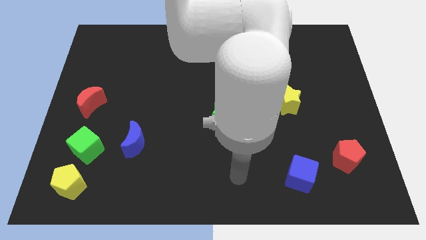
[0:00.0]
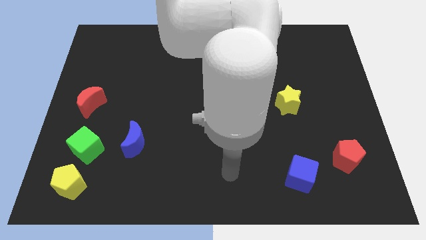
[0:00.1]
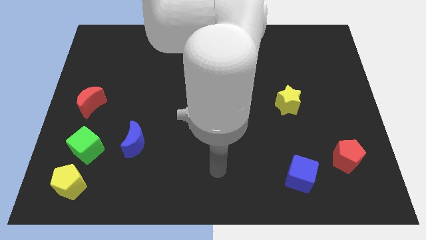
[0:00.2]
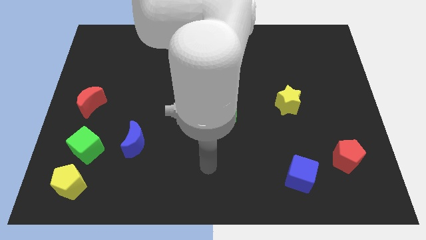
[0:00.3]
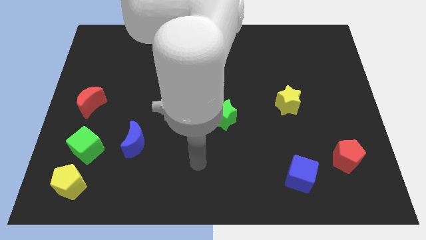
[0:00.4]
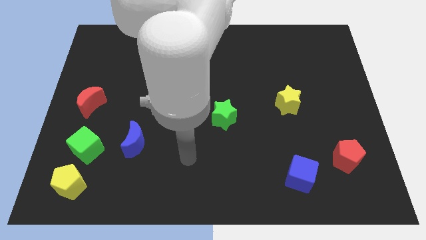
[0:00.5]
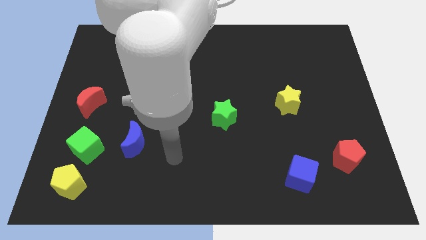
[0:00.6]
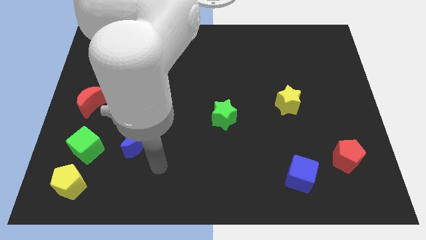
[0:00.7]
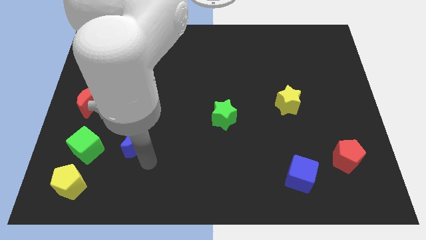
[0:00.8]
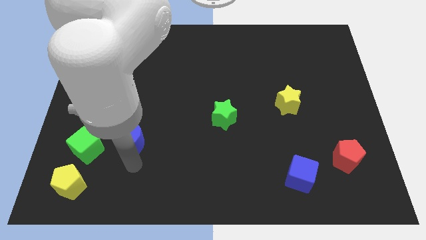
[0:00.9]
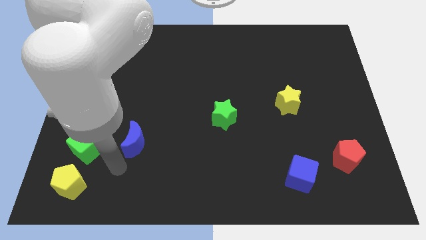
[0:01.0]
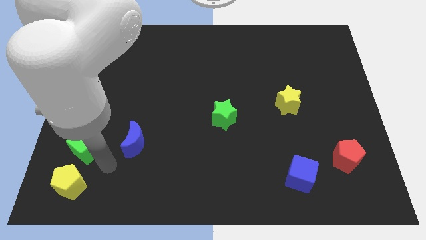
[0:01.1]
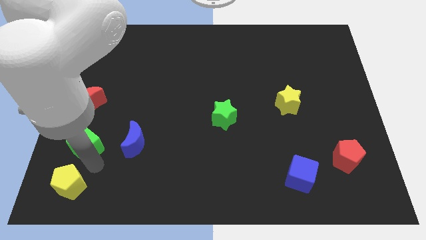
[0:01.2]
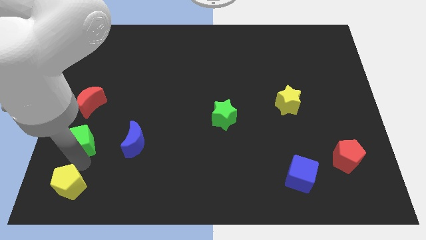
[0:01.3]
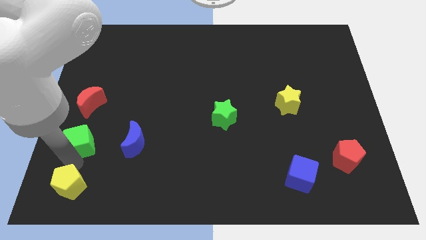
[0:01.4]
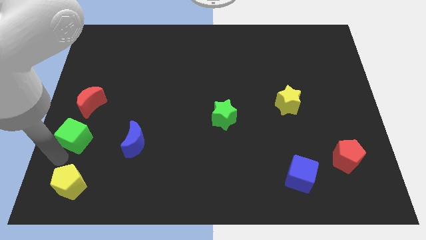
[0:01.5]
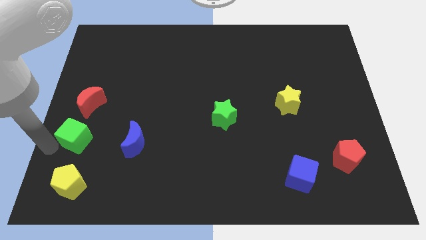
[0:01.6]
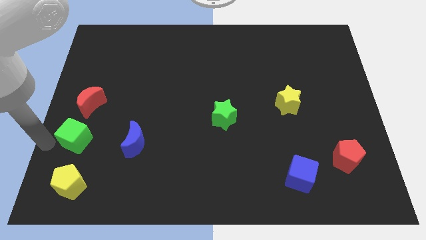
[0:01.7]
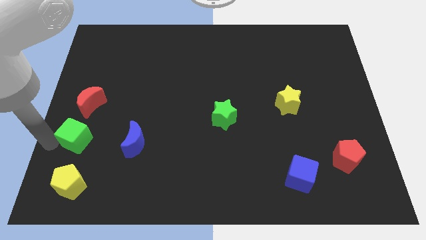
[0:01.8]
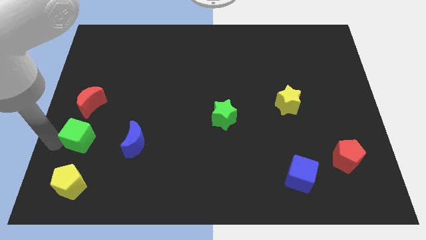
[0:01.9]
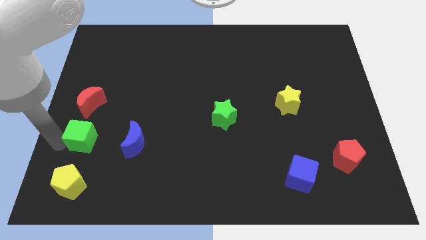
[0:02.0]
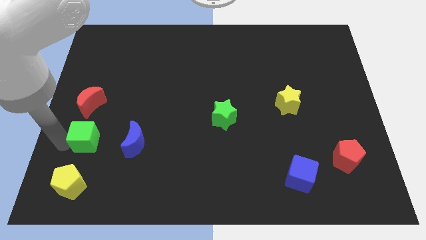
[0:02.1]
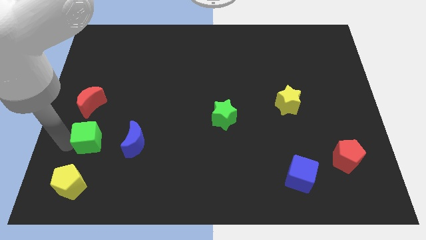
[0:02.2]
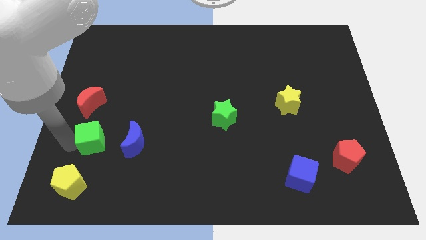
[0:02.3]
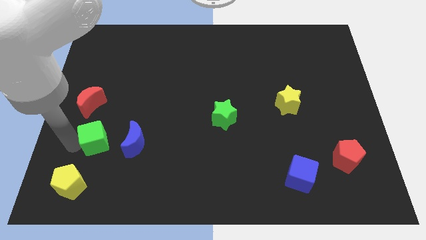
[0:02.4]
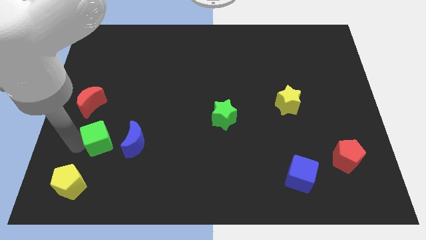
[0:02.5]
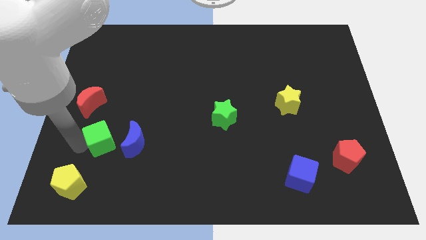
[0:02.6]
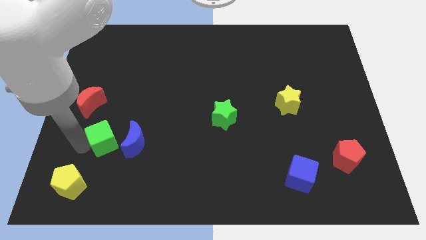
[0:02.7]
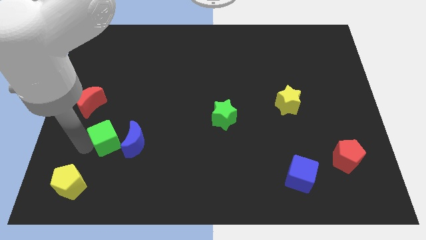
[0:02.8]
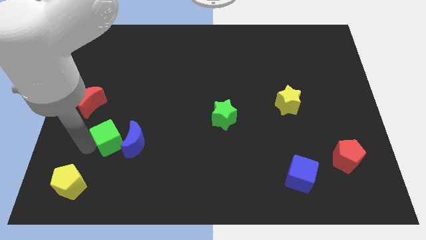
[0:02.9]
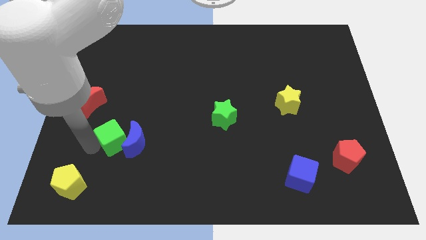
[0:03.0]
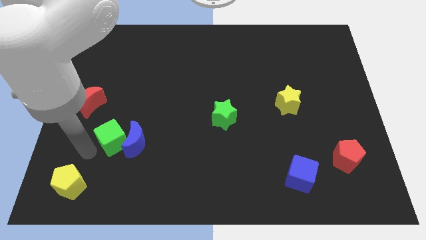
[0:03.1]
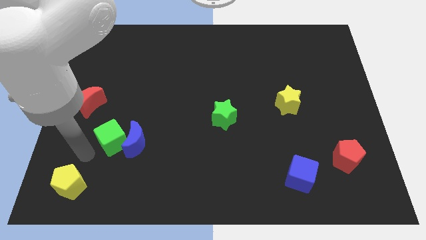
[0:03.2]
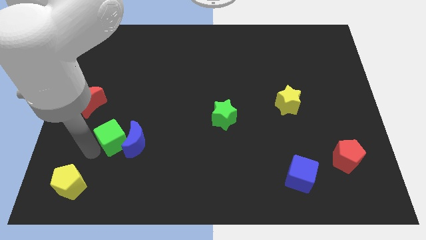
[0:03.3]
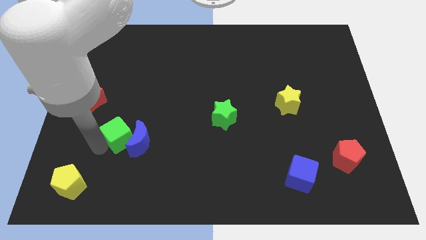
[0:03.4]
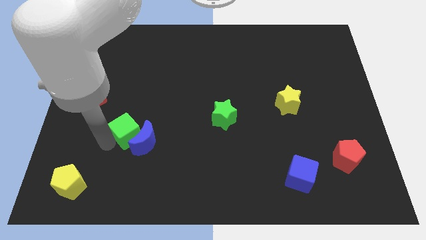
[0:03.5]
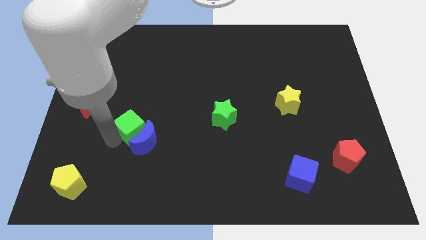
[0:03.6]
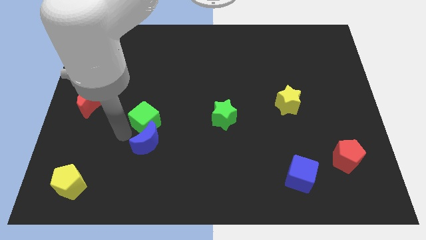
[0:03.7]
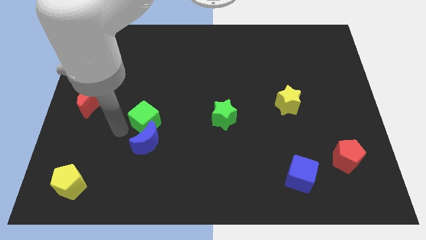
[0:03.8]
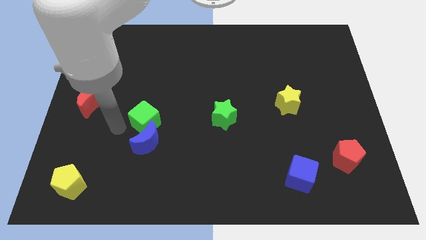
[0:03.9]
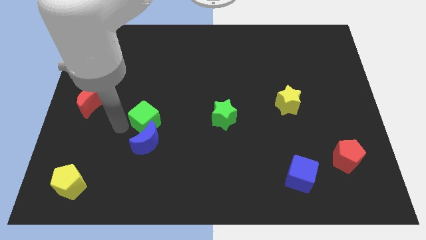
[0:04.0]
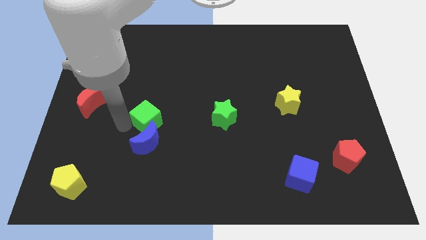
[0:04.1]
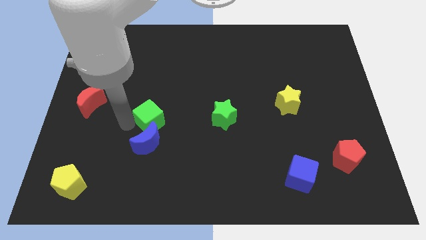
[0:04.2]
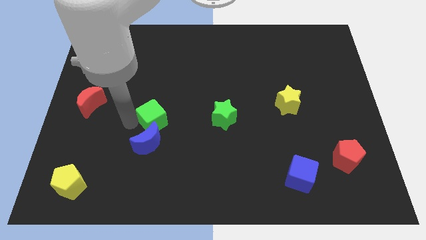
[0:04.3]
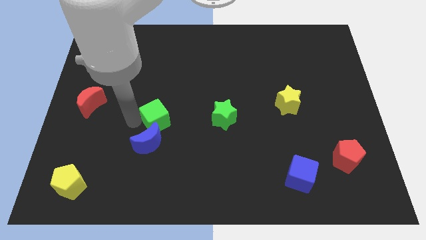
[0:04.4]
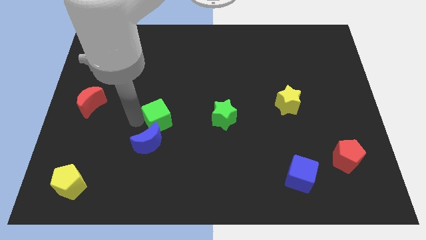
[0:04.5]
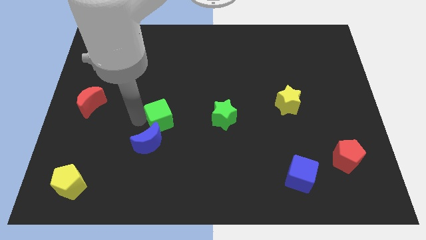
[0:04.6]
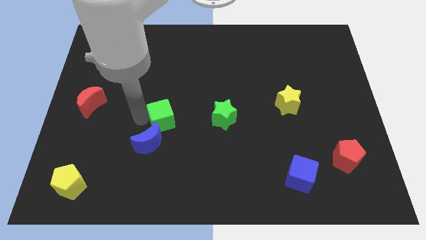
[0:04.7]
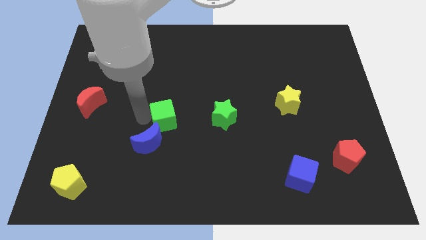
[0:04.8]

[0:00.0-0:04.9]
move the green cube to the middle of the board

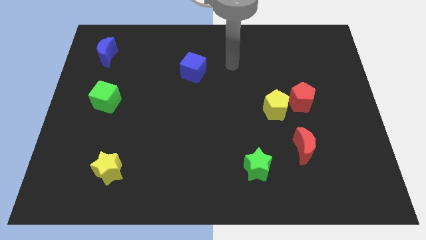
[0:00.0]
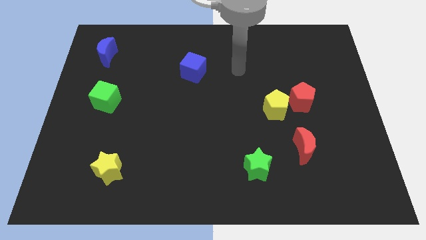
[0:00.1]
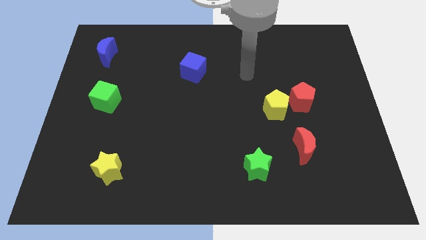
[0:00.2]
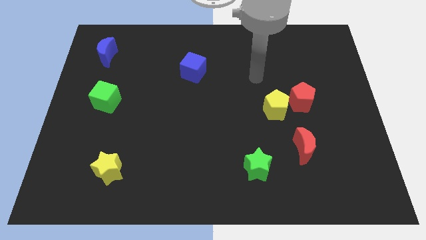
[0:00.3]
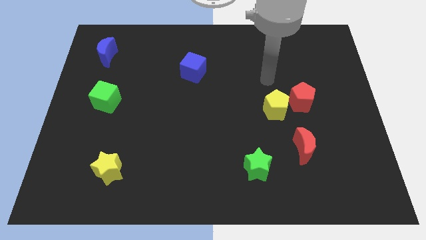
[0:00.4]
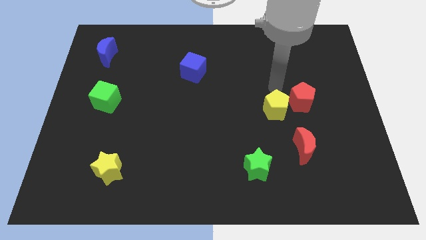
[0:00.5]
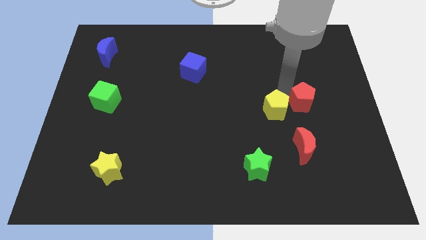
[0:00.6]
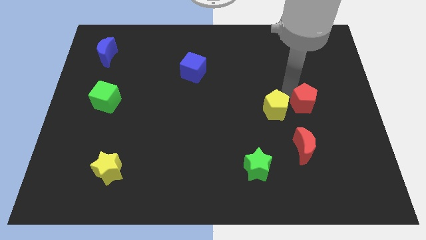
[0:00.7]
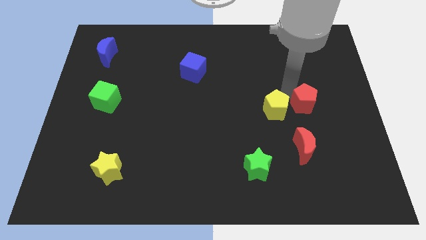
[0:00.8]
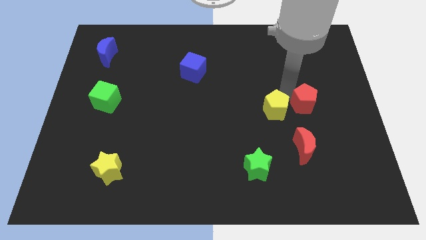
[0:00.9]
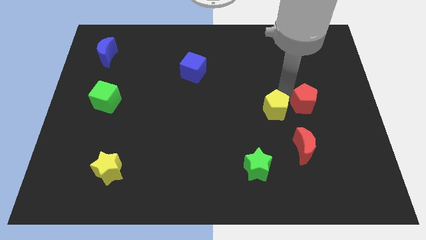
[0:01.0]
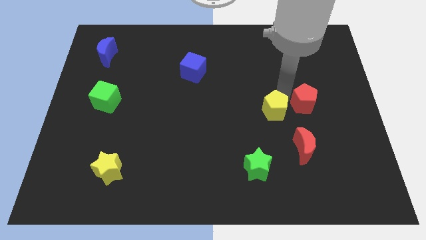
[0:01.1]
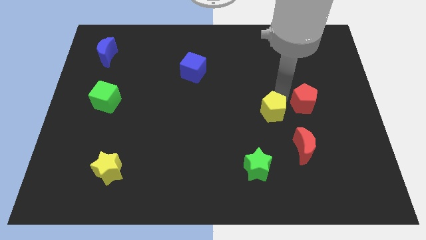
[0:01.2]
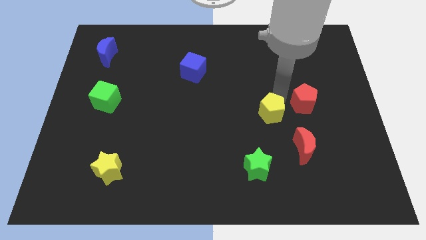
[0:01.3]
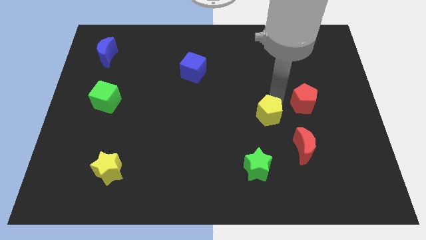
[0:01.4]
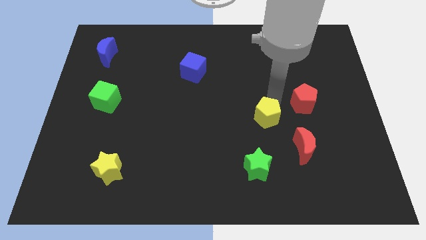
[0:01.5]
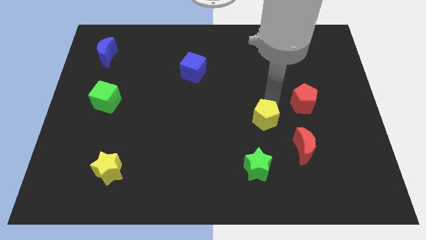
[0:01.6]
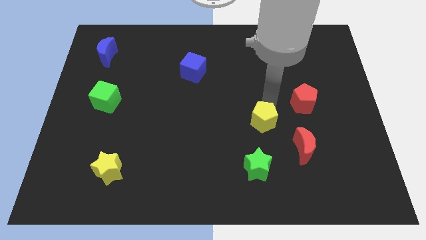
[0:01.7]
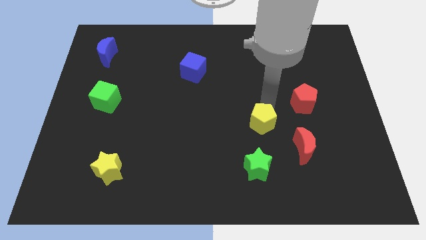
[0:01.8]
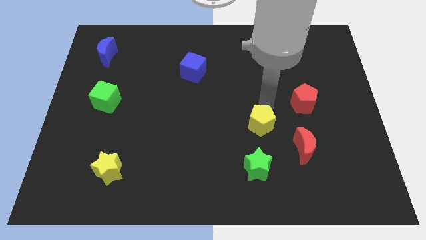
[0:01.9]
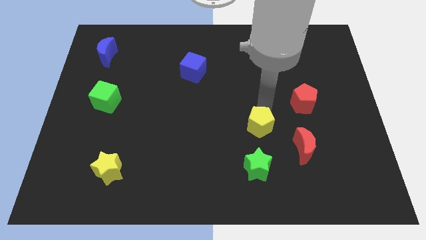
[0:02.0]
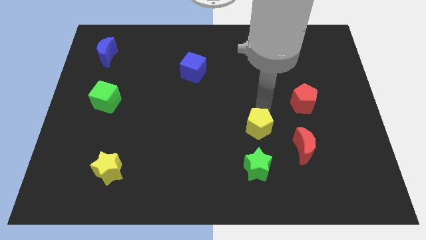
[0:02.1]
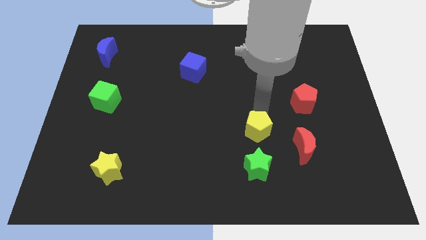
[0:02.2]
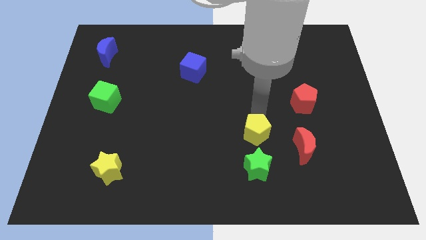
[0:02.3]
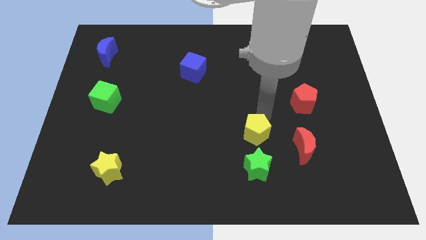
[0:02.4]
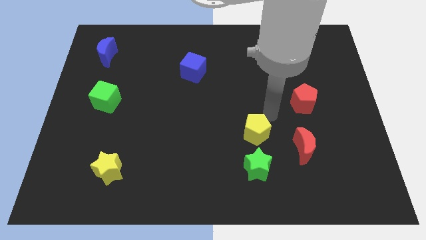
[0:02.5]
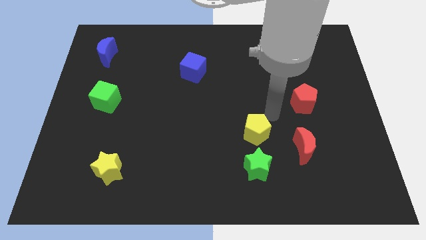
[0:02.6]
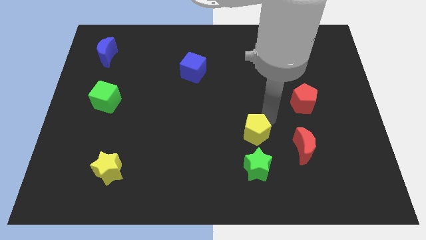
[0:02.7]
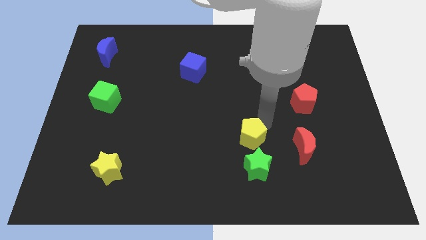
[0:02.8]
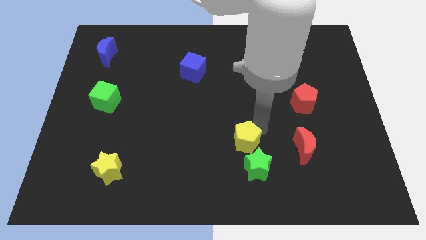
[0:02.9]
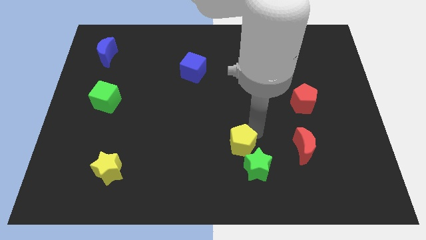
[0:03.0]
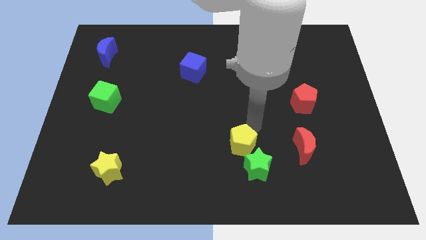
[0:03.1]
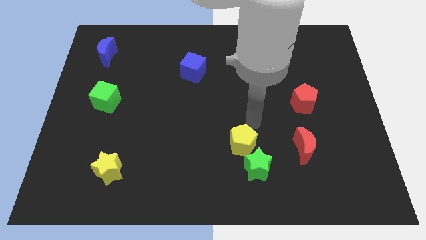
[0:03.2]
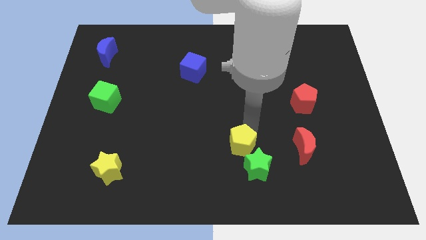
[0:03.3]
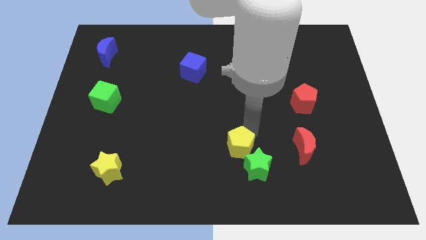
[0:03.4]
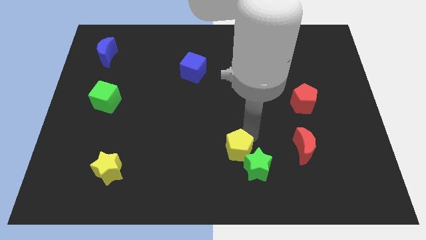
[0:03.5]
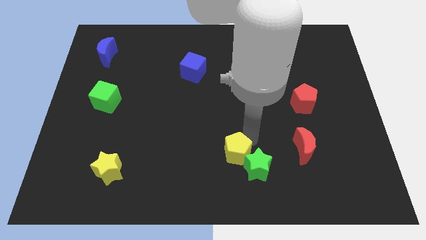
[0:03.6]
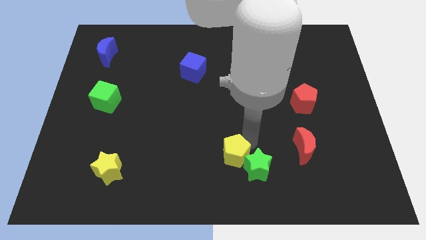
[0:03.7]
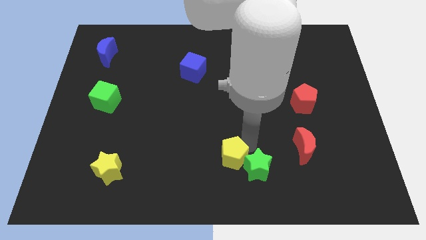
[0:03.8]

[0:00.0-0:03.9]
move the yellow pentagon to the bottom
